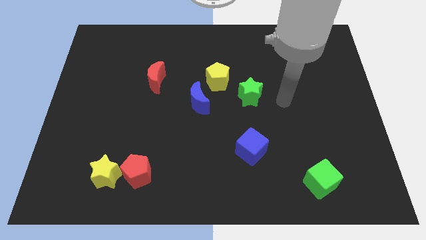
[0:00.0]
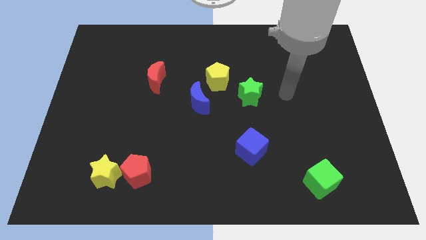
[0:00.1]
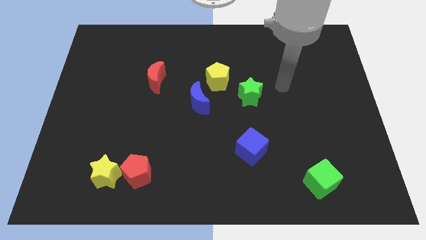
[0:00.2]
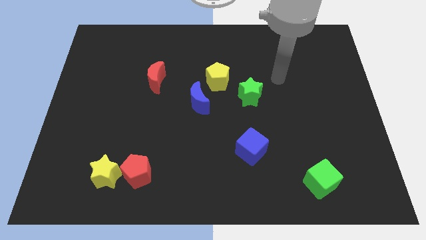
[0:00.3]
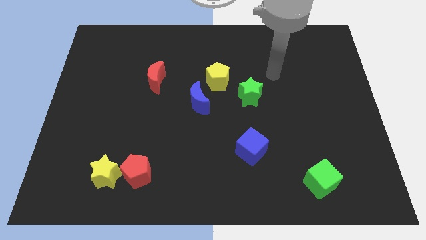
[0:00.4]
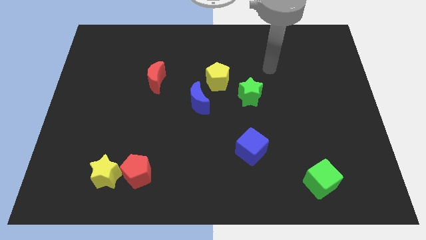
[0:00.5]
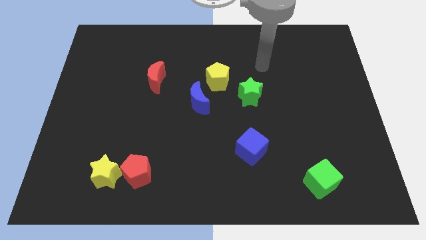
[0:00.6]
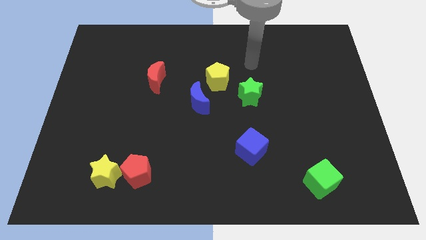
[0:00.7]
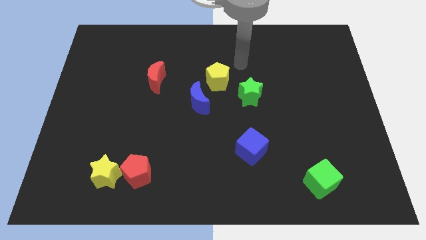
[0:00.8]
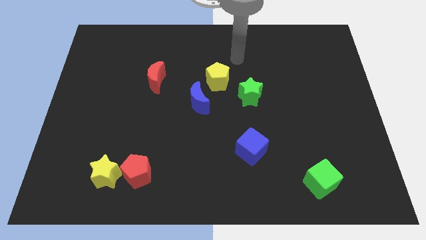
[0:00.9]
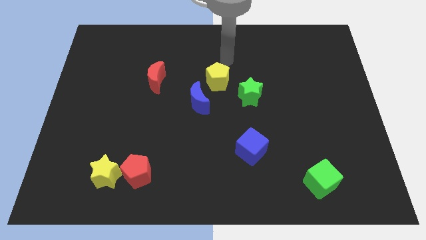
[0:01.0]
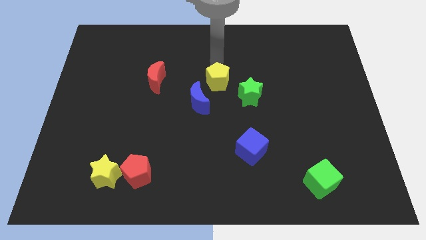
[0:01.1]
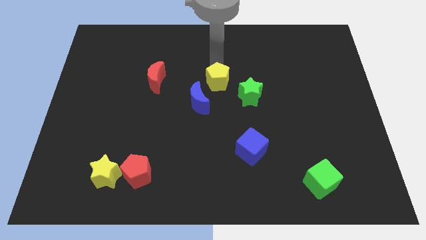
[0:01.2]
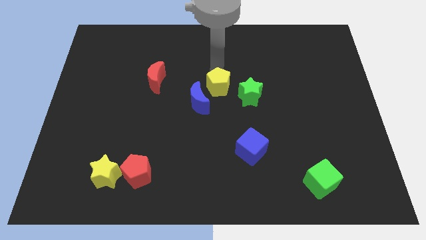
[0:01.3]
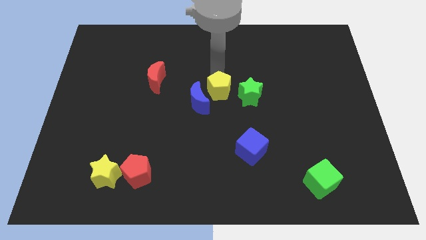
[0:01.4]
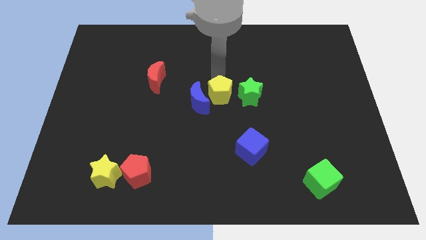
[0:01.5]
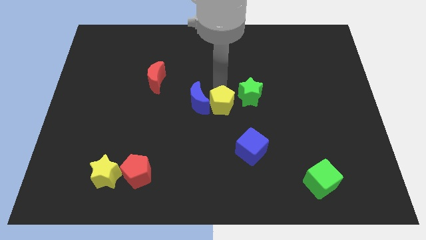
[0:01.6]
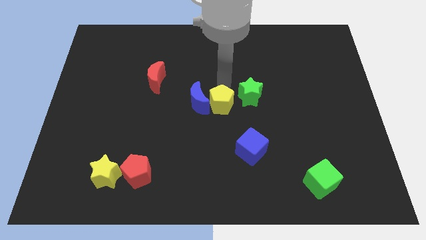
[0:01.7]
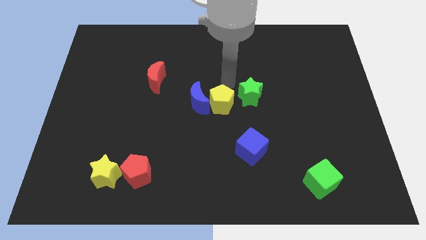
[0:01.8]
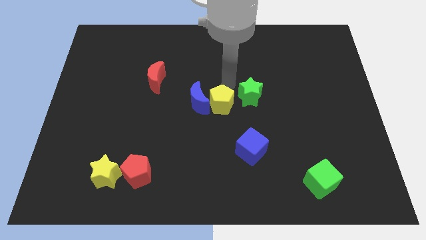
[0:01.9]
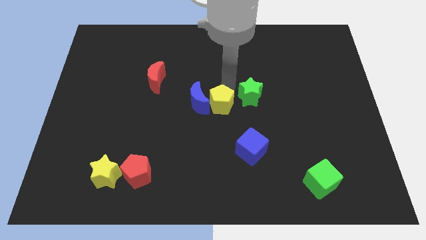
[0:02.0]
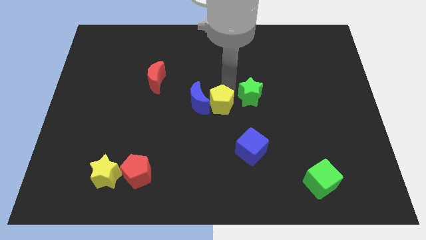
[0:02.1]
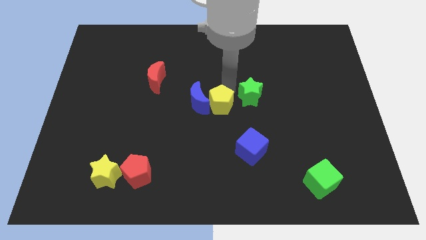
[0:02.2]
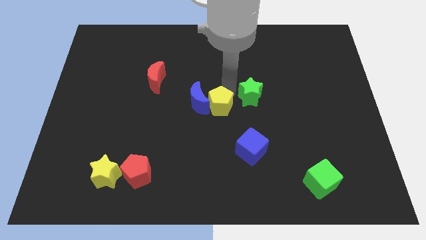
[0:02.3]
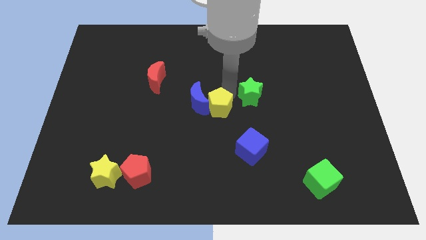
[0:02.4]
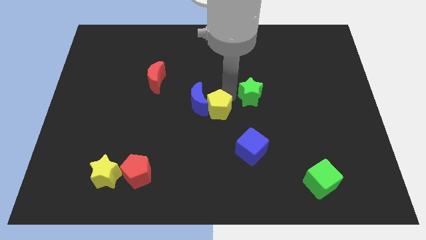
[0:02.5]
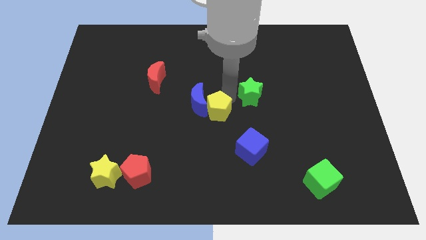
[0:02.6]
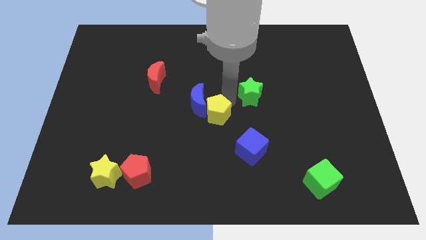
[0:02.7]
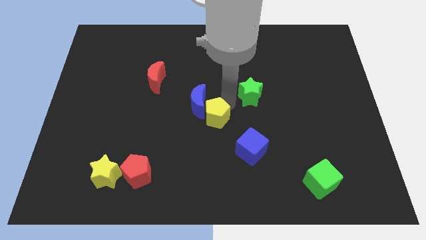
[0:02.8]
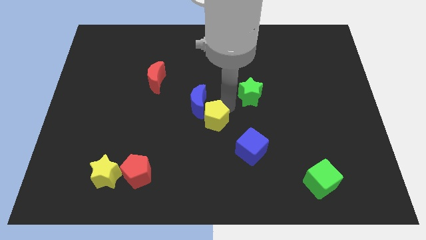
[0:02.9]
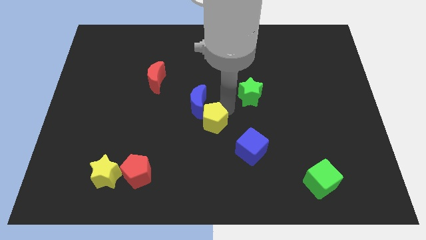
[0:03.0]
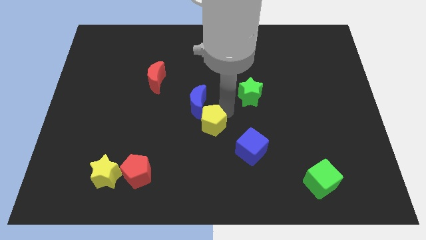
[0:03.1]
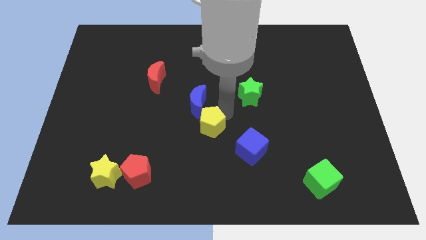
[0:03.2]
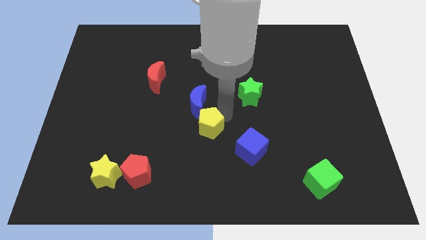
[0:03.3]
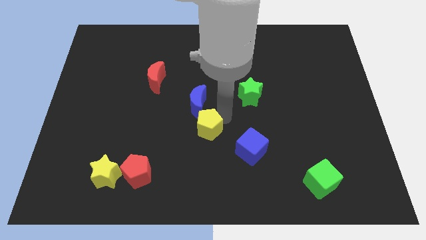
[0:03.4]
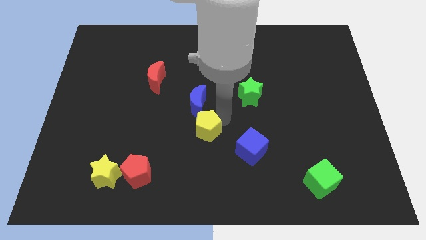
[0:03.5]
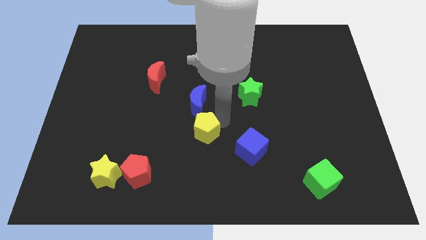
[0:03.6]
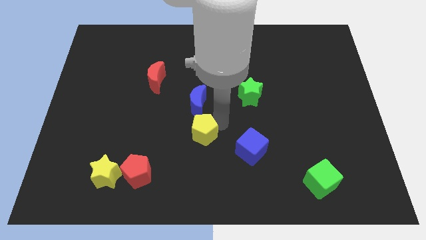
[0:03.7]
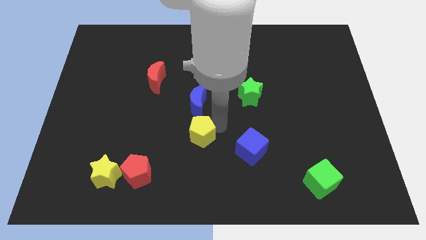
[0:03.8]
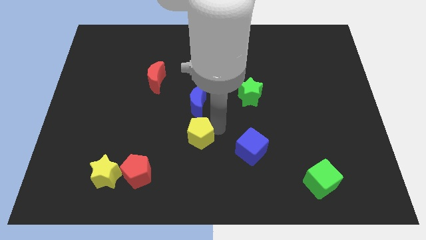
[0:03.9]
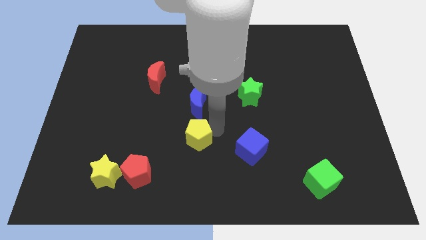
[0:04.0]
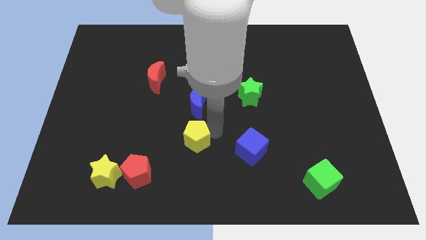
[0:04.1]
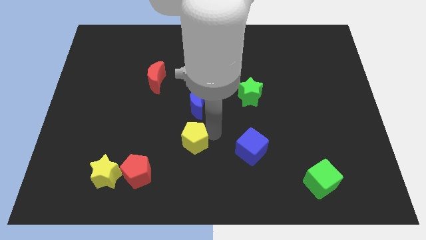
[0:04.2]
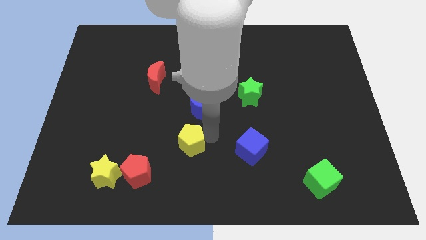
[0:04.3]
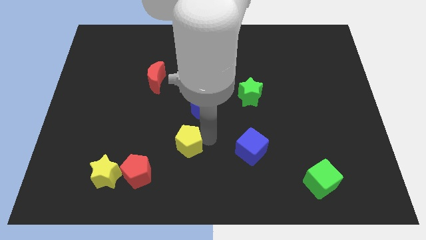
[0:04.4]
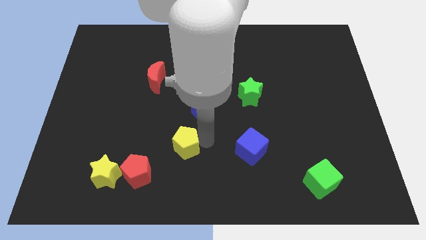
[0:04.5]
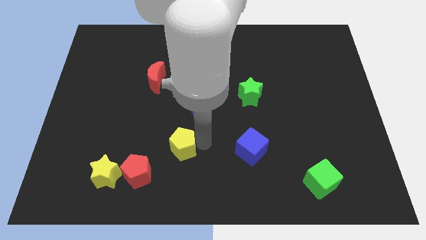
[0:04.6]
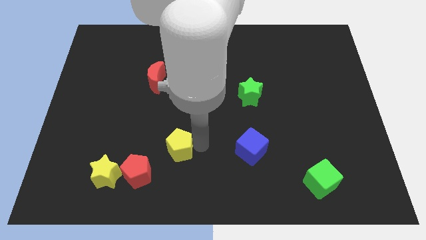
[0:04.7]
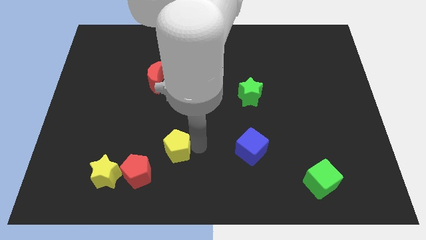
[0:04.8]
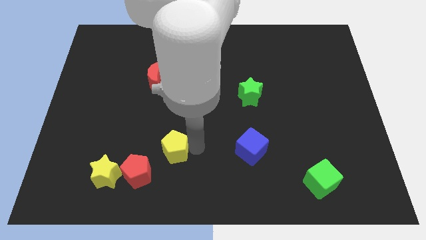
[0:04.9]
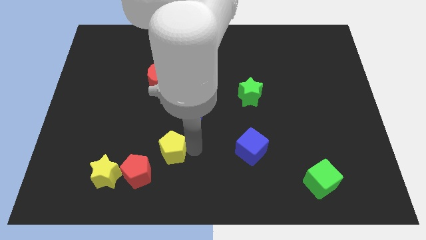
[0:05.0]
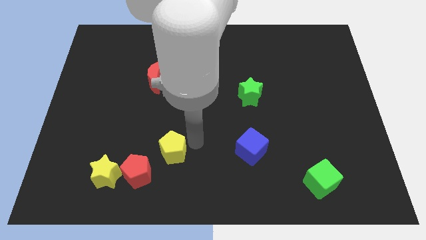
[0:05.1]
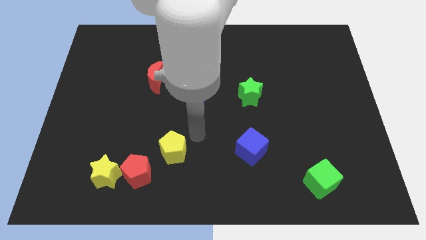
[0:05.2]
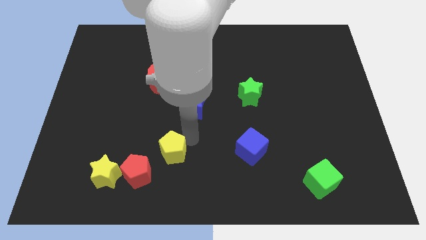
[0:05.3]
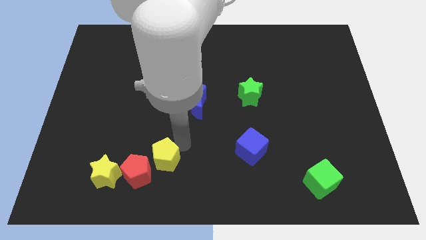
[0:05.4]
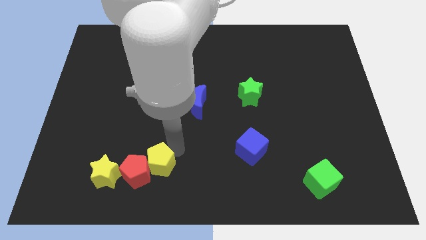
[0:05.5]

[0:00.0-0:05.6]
push the yellow pentagon next to the red pentagon

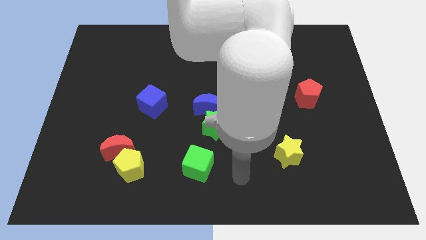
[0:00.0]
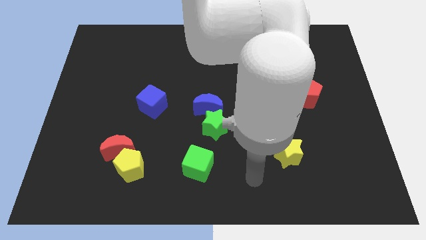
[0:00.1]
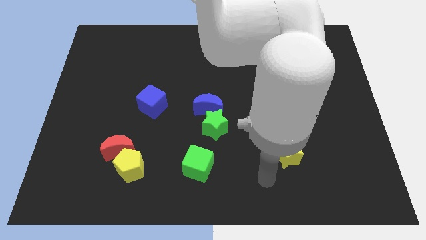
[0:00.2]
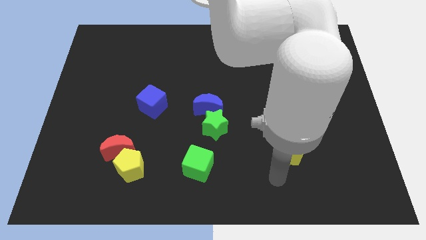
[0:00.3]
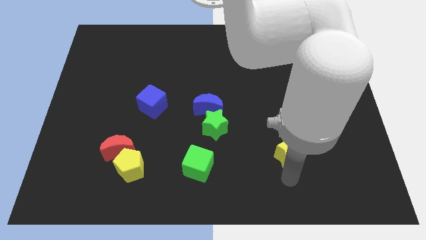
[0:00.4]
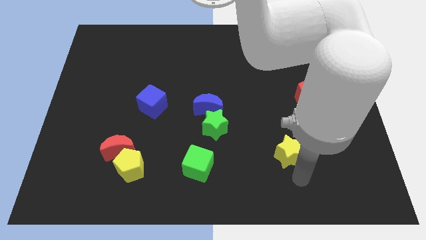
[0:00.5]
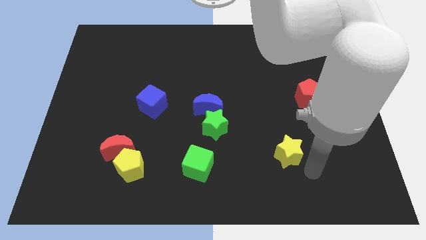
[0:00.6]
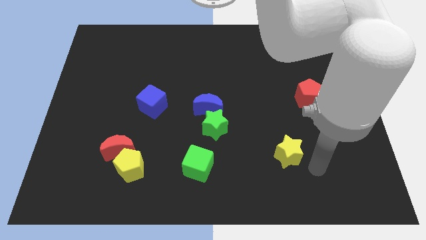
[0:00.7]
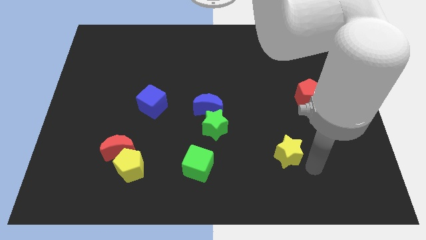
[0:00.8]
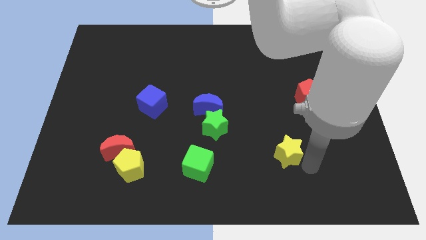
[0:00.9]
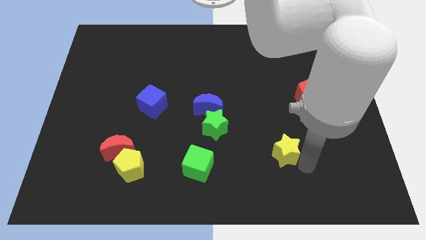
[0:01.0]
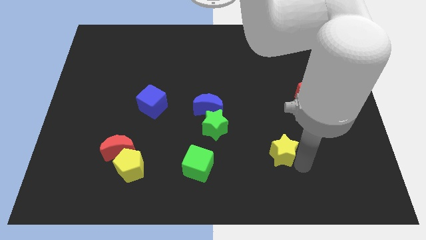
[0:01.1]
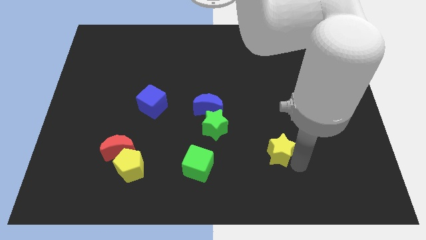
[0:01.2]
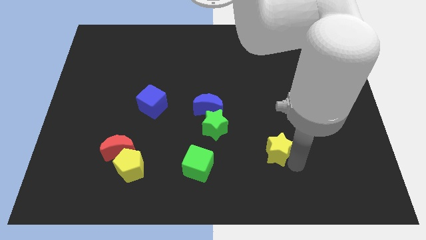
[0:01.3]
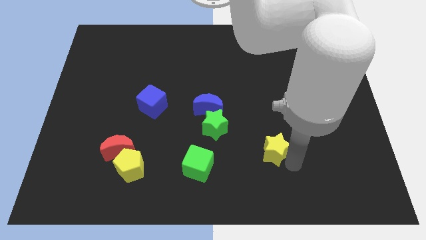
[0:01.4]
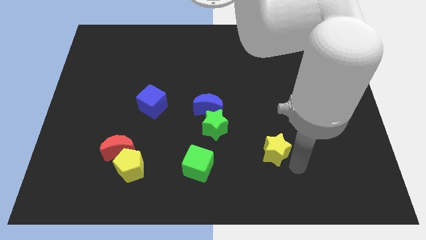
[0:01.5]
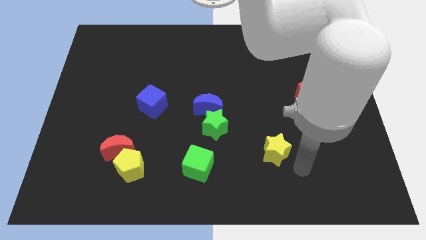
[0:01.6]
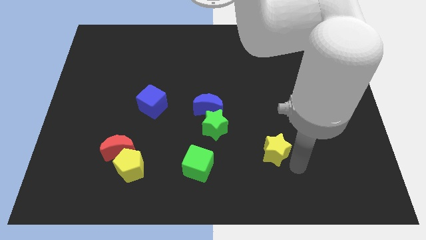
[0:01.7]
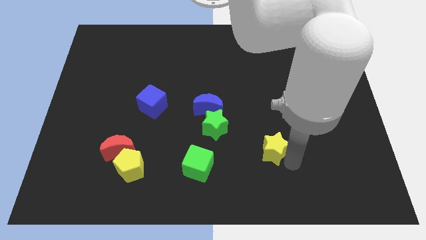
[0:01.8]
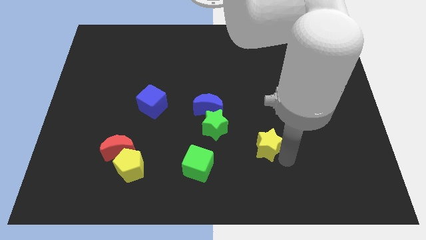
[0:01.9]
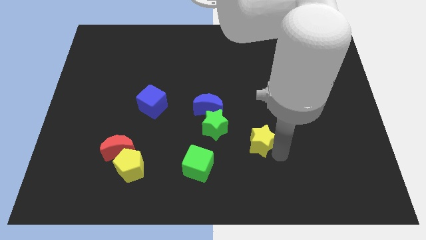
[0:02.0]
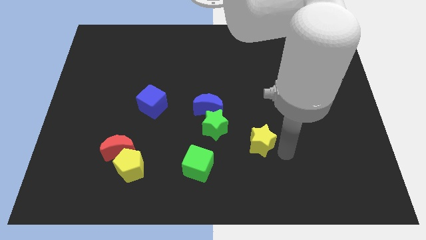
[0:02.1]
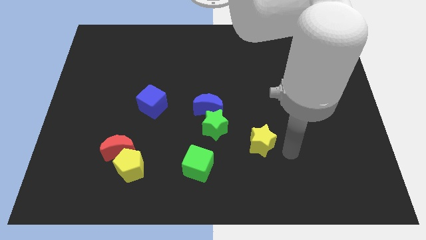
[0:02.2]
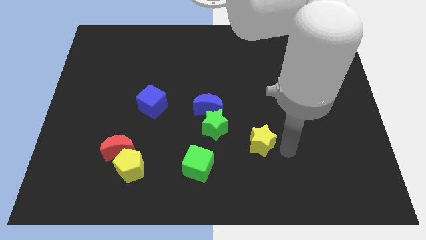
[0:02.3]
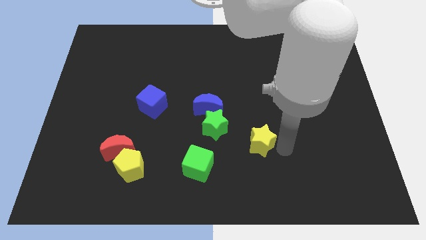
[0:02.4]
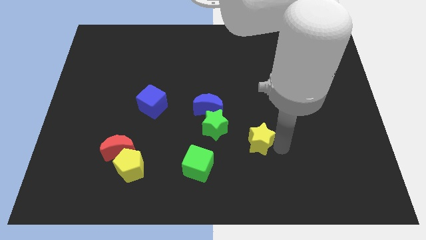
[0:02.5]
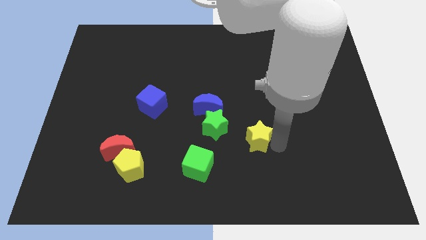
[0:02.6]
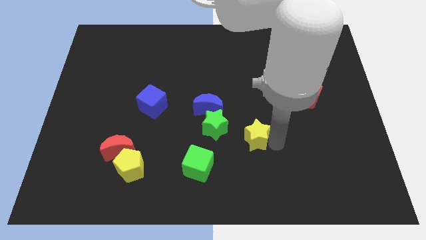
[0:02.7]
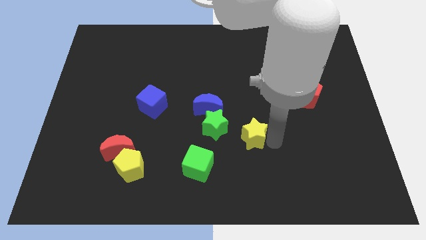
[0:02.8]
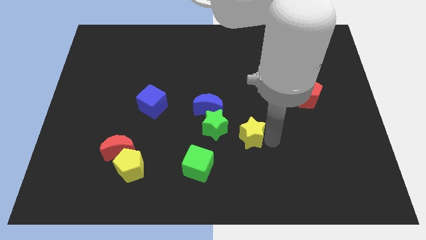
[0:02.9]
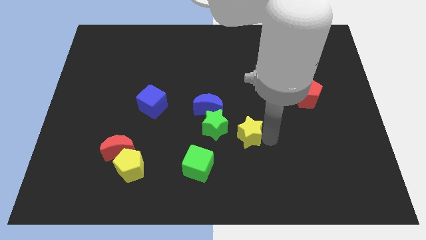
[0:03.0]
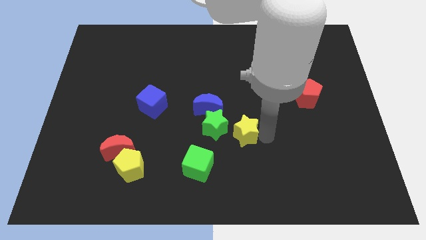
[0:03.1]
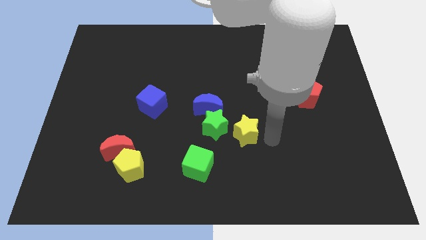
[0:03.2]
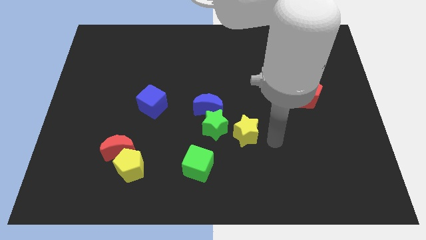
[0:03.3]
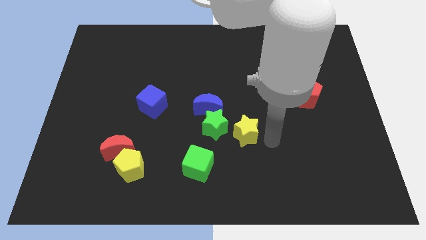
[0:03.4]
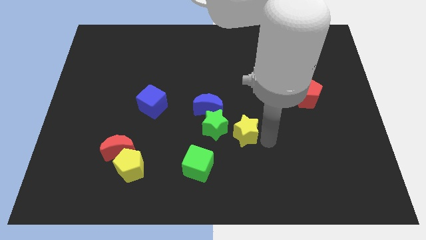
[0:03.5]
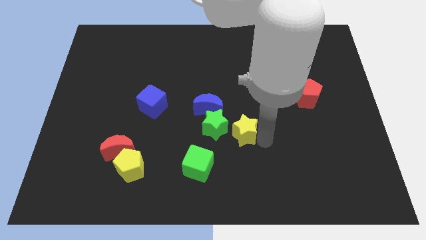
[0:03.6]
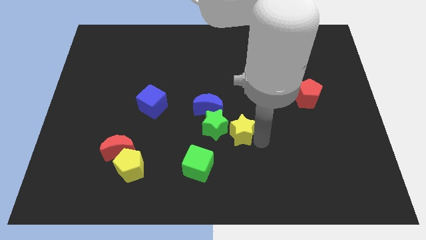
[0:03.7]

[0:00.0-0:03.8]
push the yellow star to the green star
